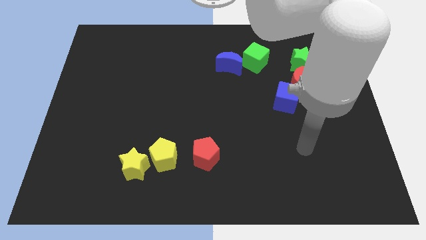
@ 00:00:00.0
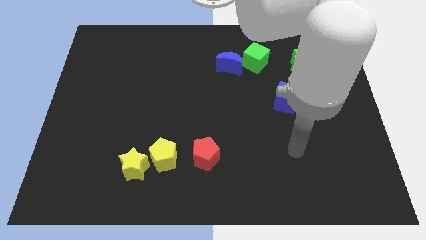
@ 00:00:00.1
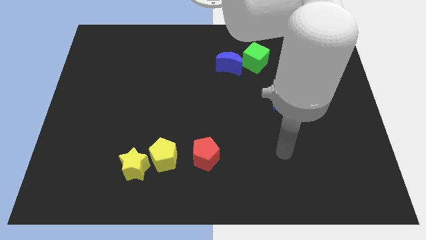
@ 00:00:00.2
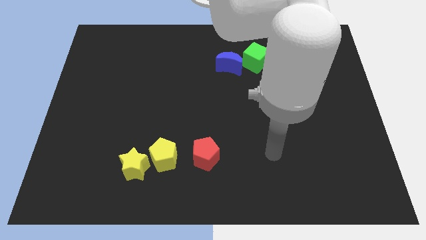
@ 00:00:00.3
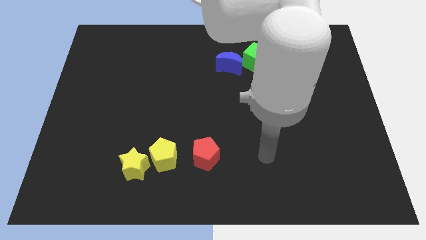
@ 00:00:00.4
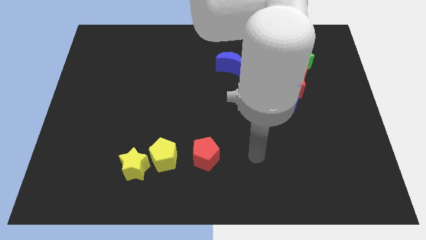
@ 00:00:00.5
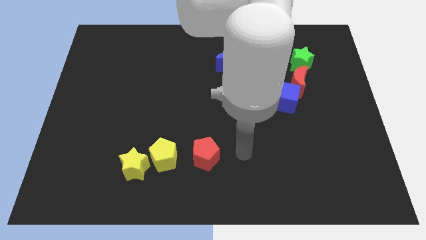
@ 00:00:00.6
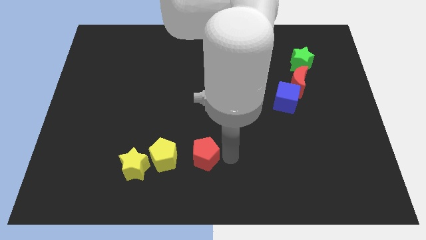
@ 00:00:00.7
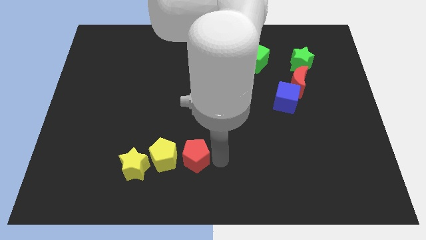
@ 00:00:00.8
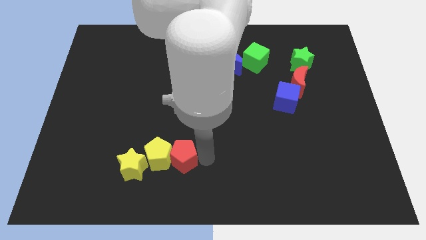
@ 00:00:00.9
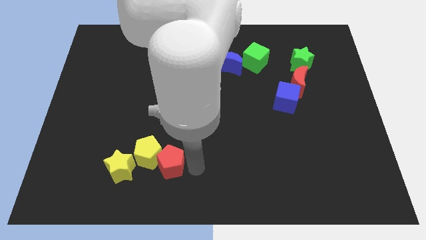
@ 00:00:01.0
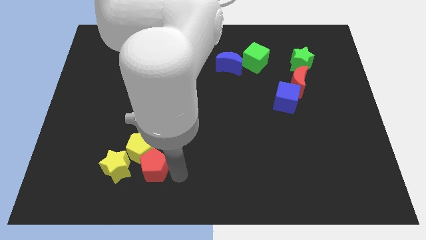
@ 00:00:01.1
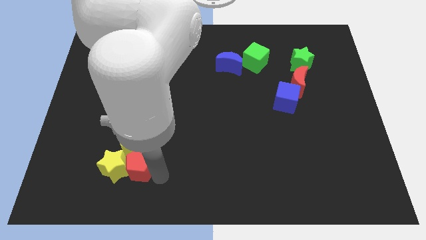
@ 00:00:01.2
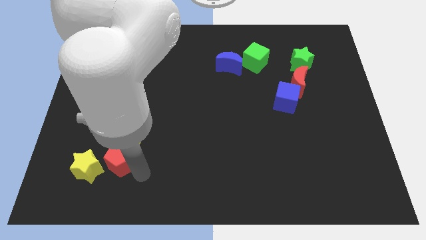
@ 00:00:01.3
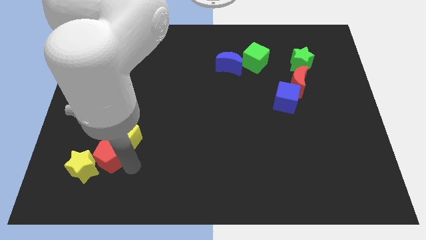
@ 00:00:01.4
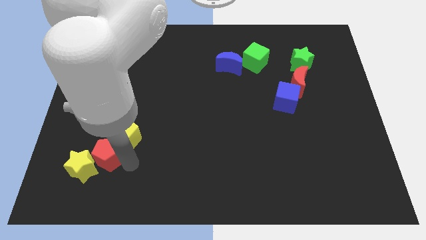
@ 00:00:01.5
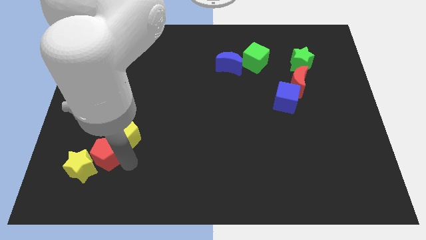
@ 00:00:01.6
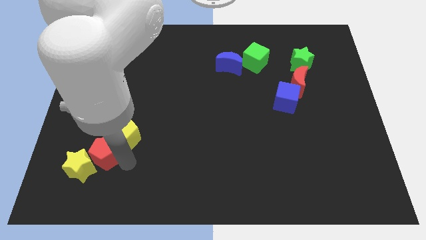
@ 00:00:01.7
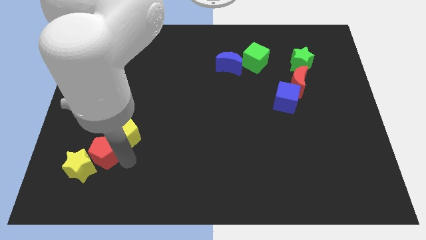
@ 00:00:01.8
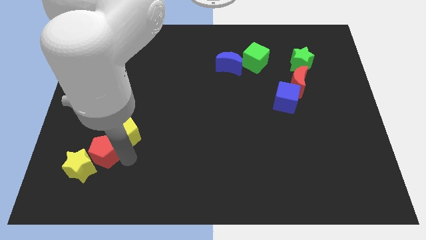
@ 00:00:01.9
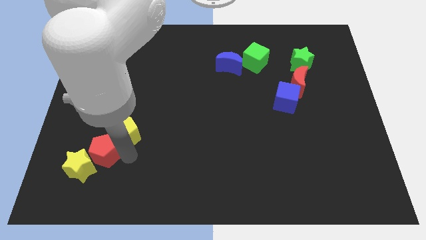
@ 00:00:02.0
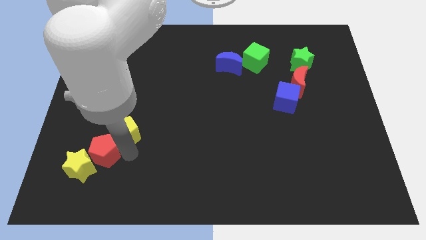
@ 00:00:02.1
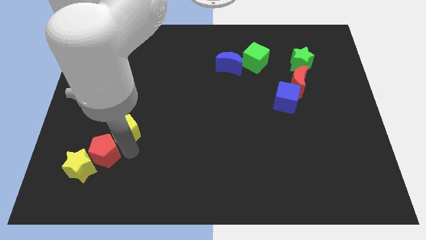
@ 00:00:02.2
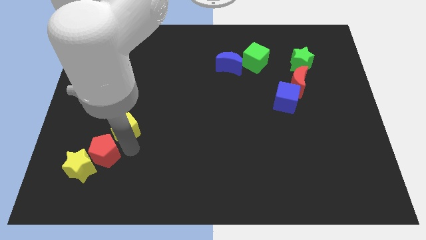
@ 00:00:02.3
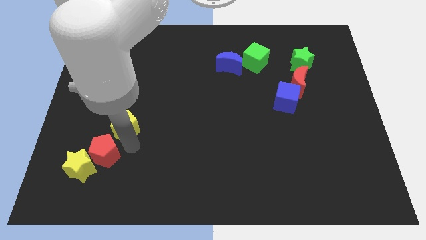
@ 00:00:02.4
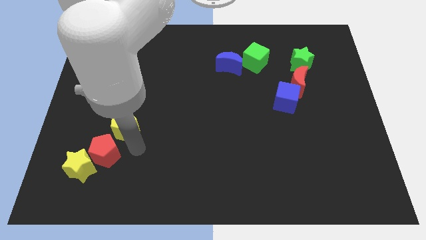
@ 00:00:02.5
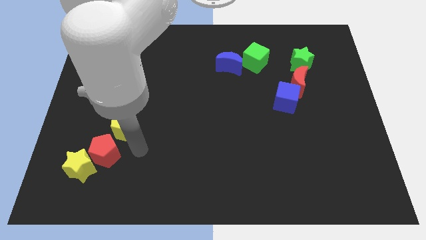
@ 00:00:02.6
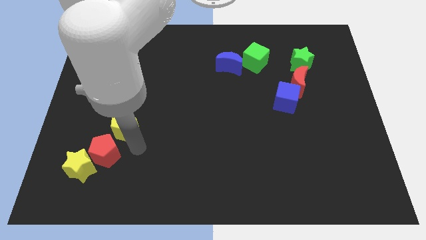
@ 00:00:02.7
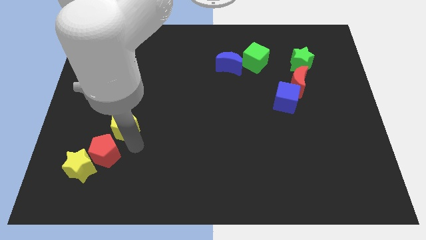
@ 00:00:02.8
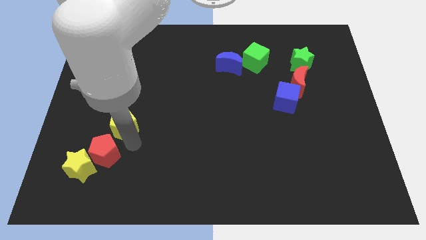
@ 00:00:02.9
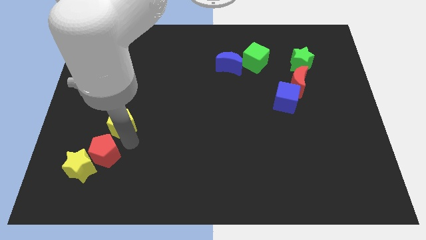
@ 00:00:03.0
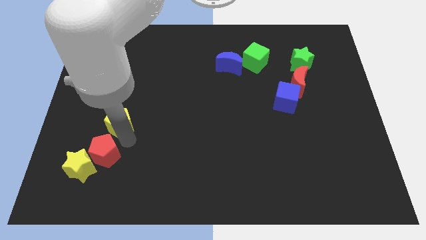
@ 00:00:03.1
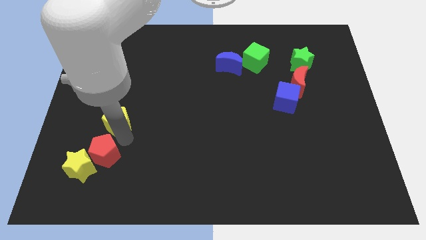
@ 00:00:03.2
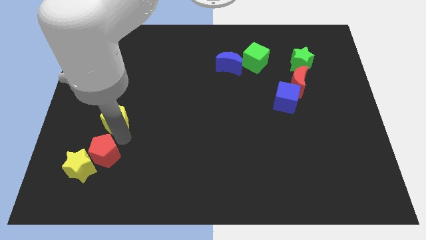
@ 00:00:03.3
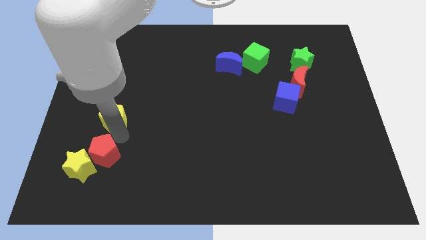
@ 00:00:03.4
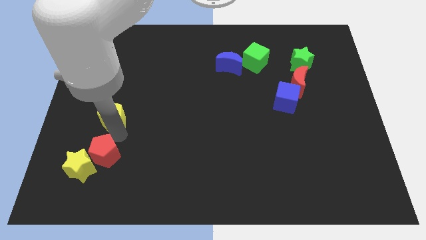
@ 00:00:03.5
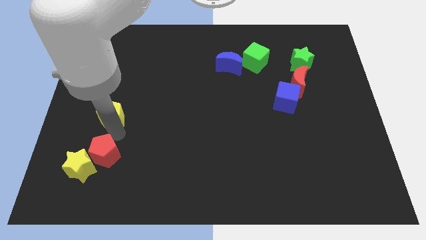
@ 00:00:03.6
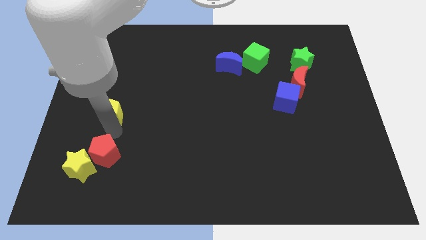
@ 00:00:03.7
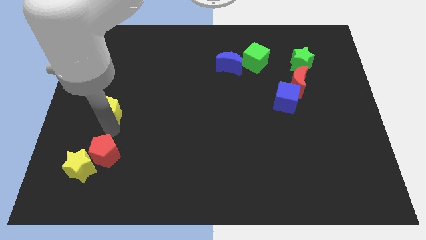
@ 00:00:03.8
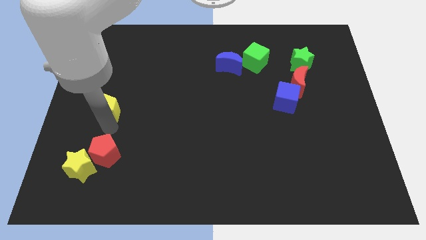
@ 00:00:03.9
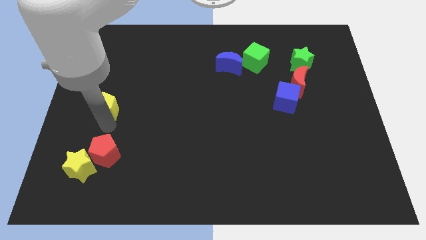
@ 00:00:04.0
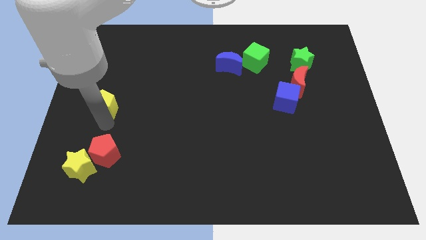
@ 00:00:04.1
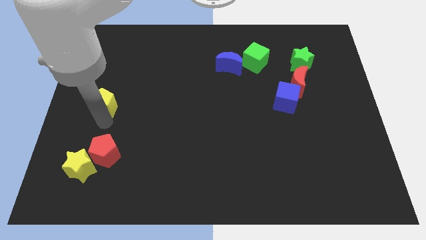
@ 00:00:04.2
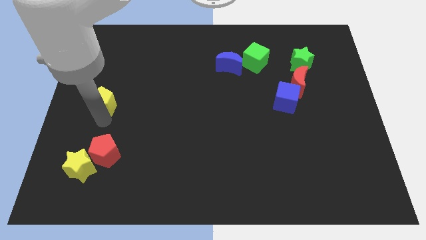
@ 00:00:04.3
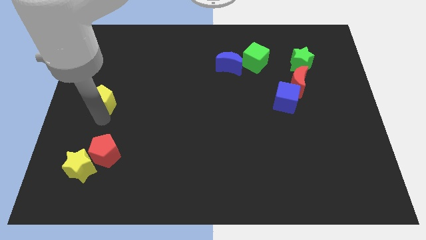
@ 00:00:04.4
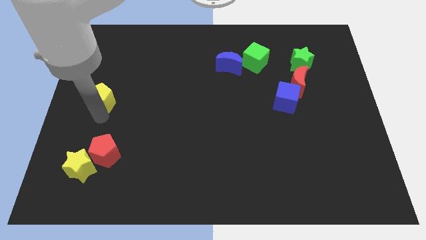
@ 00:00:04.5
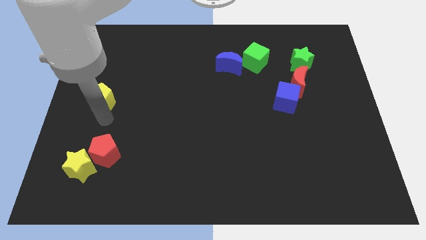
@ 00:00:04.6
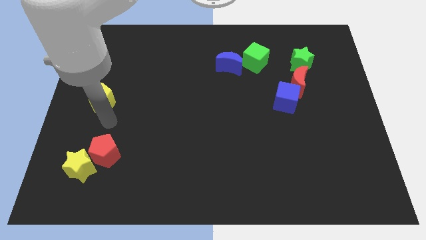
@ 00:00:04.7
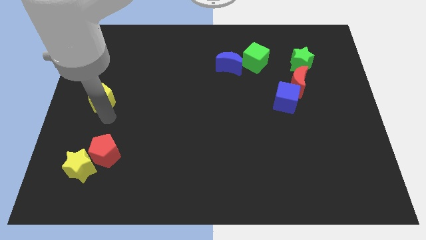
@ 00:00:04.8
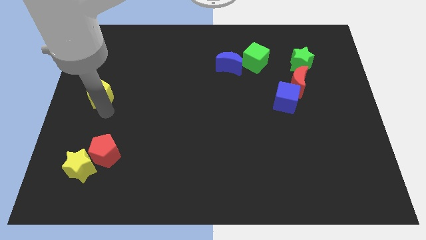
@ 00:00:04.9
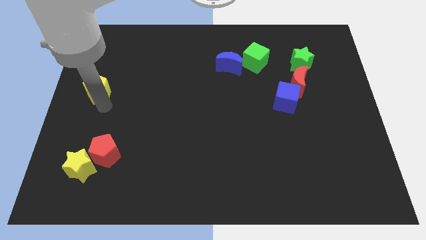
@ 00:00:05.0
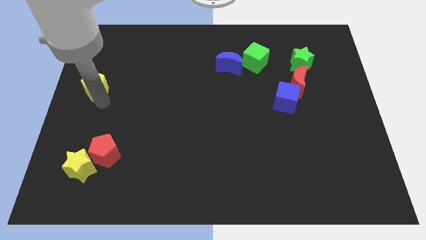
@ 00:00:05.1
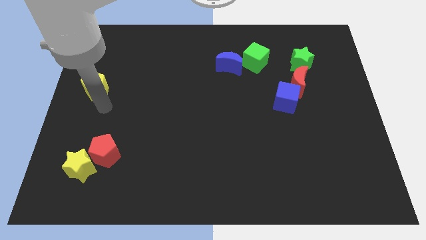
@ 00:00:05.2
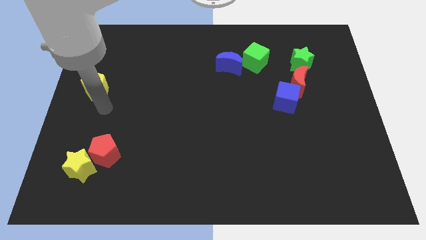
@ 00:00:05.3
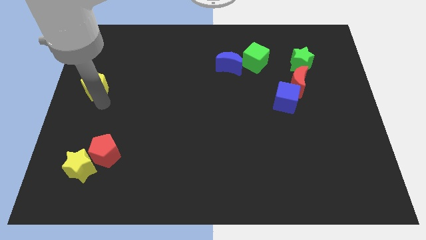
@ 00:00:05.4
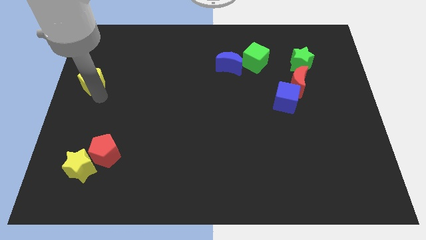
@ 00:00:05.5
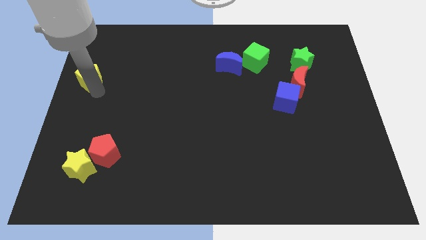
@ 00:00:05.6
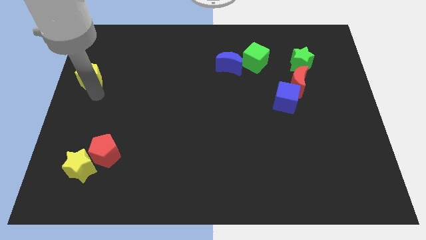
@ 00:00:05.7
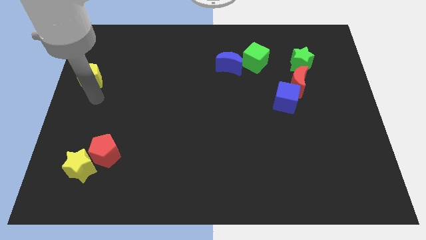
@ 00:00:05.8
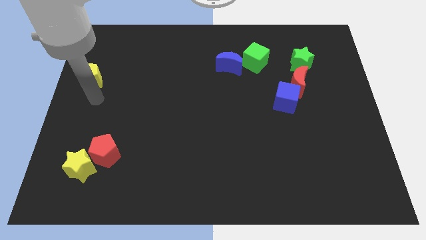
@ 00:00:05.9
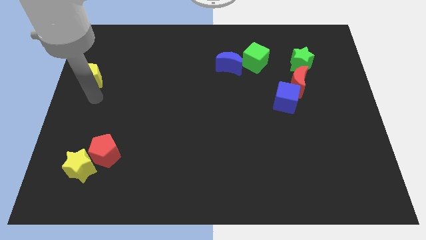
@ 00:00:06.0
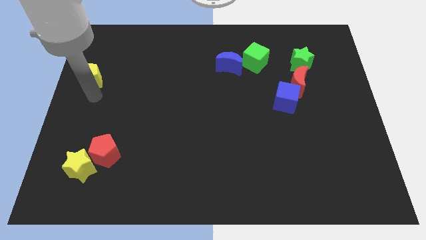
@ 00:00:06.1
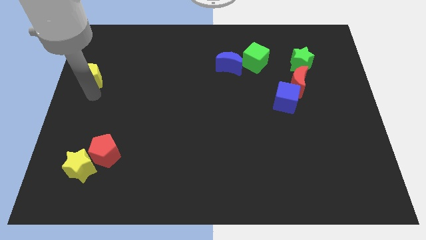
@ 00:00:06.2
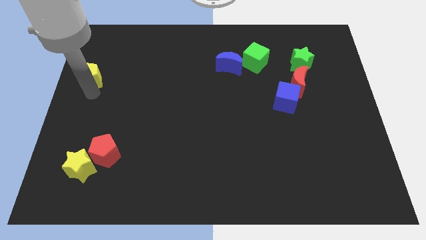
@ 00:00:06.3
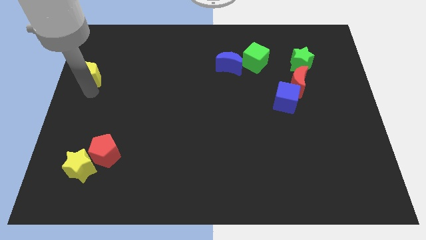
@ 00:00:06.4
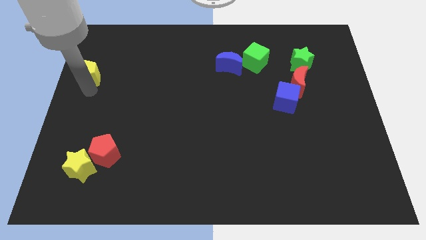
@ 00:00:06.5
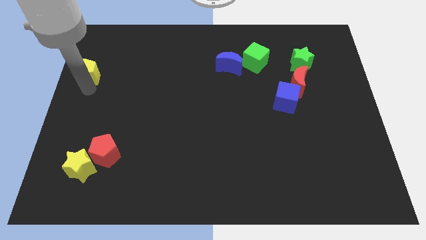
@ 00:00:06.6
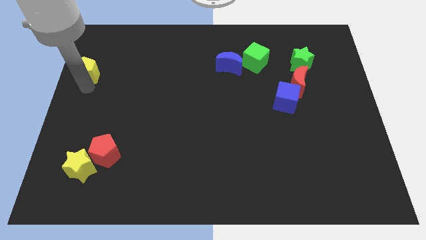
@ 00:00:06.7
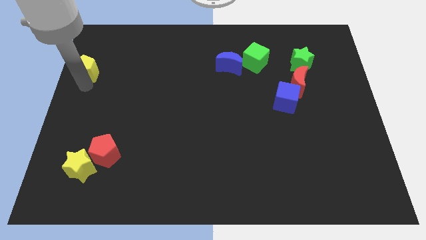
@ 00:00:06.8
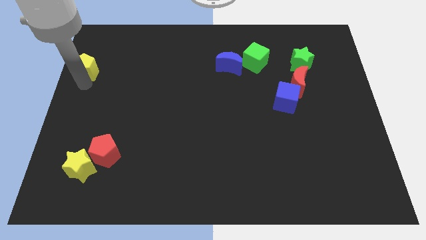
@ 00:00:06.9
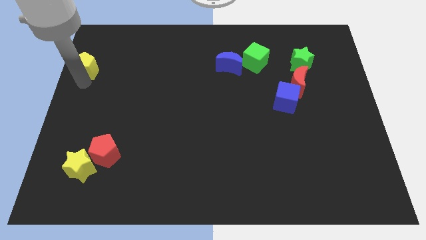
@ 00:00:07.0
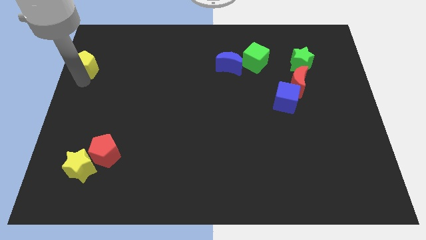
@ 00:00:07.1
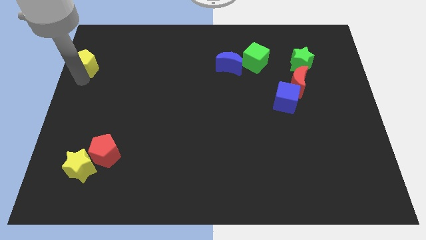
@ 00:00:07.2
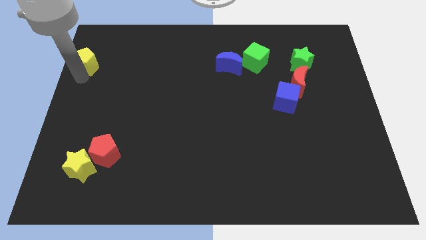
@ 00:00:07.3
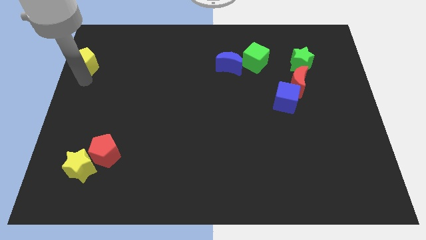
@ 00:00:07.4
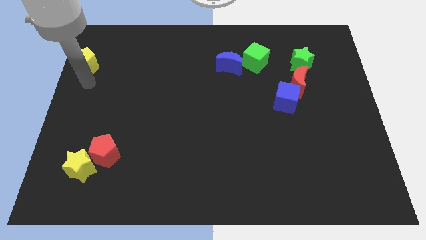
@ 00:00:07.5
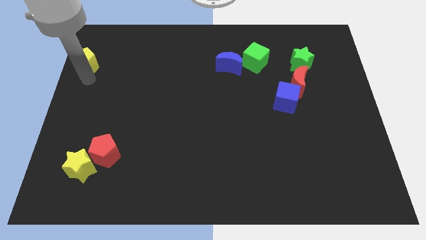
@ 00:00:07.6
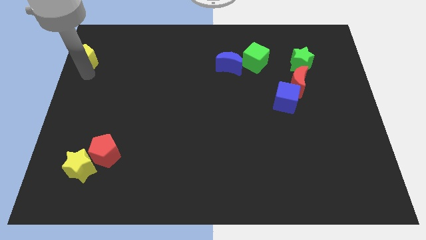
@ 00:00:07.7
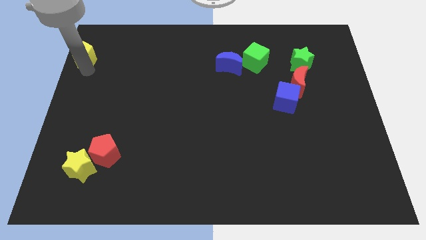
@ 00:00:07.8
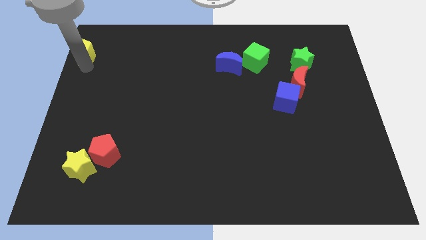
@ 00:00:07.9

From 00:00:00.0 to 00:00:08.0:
put the yellow pentagon to the upper left corner

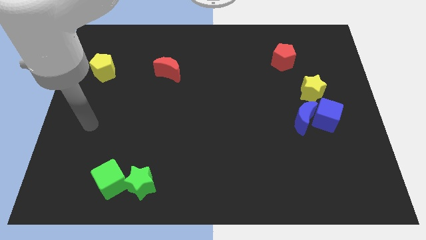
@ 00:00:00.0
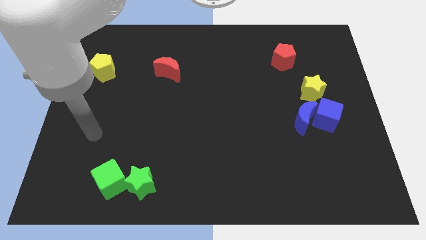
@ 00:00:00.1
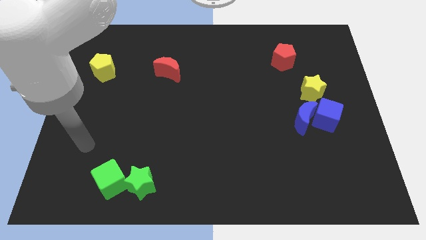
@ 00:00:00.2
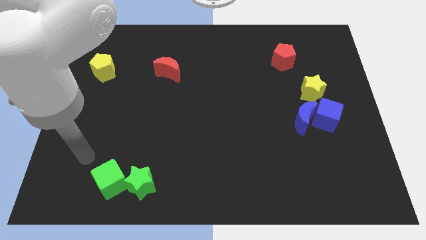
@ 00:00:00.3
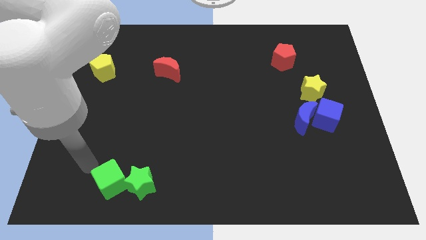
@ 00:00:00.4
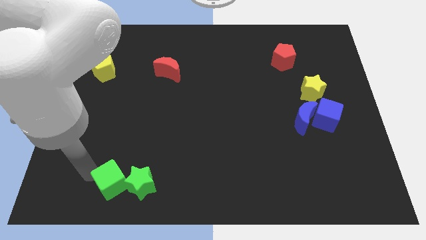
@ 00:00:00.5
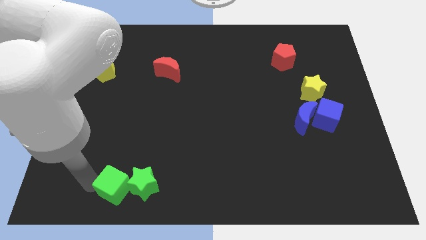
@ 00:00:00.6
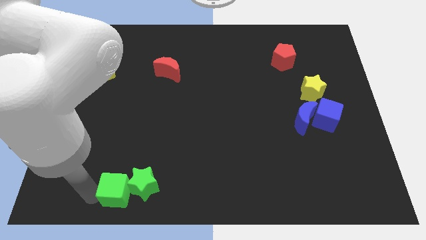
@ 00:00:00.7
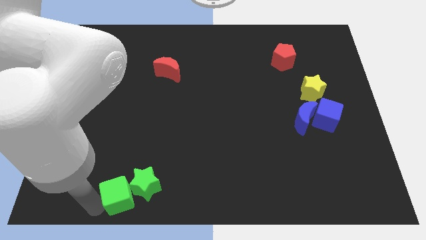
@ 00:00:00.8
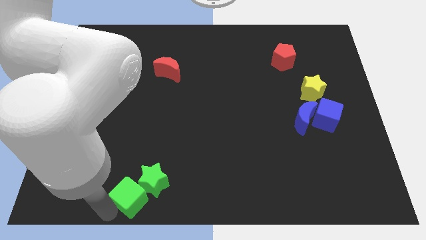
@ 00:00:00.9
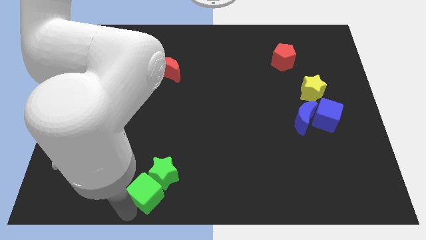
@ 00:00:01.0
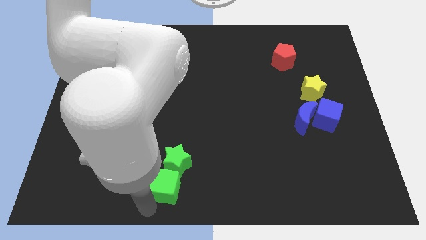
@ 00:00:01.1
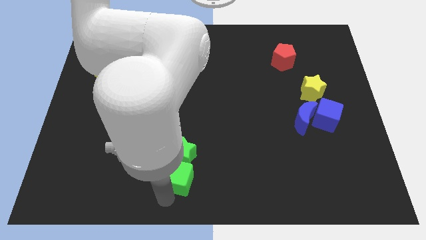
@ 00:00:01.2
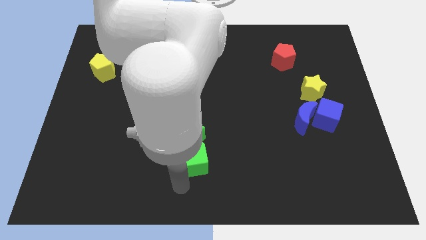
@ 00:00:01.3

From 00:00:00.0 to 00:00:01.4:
push the green star to the middle of the board
